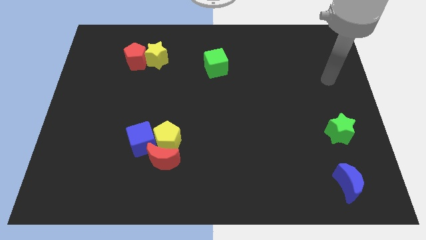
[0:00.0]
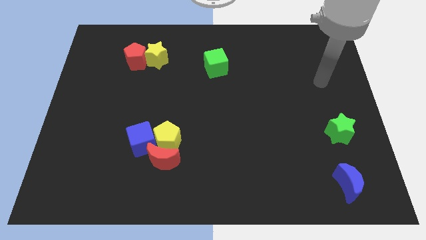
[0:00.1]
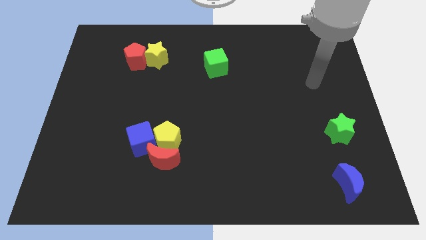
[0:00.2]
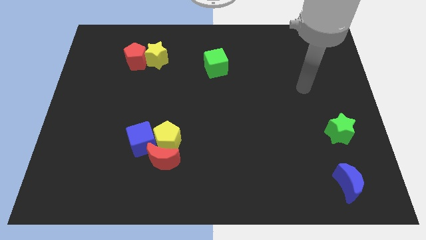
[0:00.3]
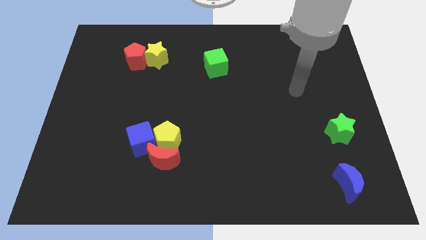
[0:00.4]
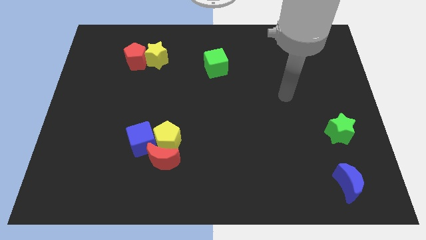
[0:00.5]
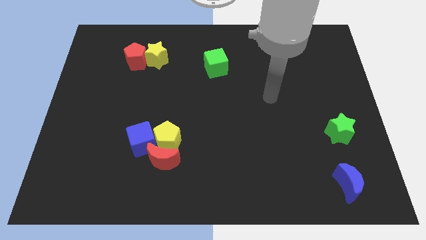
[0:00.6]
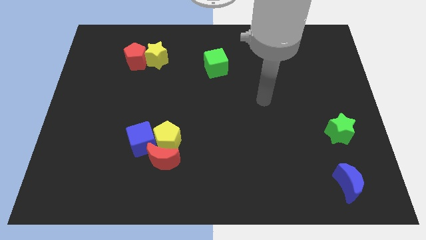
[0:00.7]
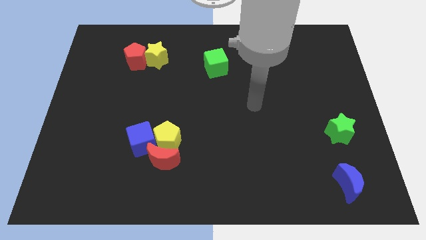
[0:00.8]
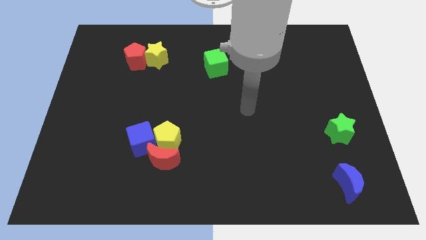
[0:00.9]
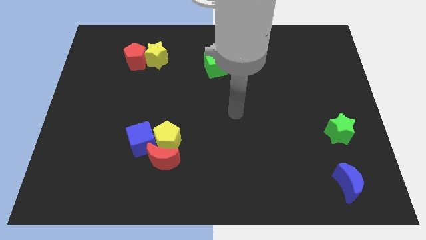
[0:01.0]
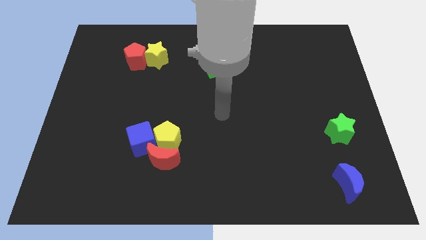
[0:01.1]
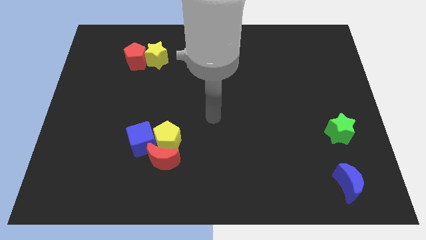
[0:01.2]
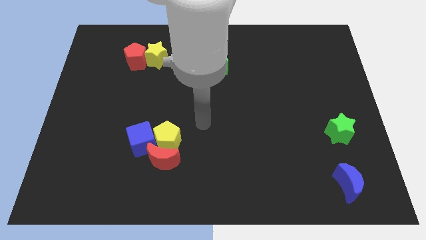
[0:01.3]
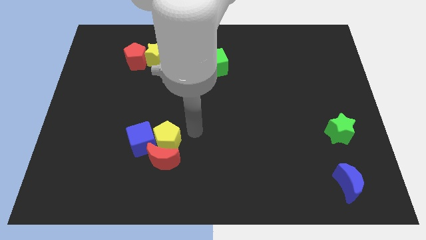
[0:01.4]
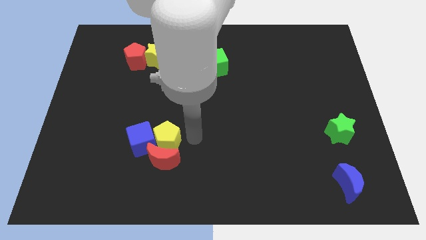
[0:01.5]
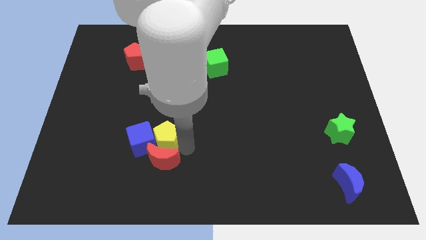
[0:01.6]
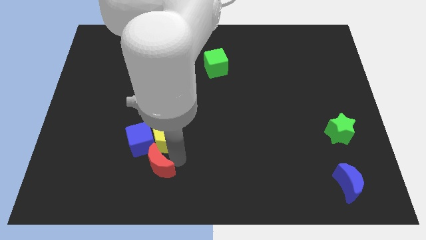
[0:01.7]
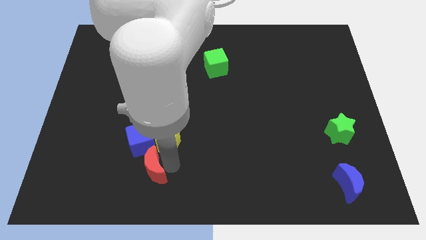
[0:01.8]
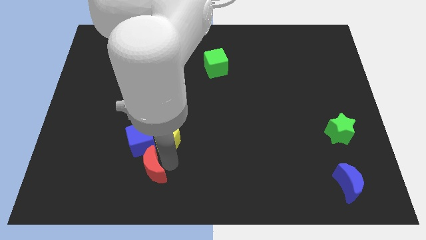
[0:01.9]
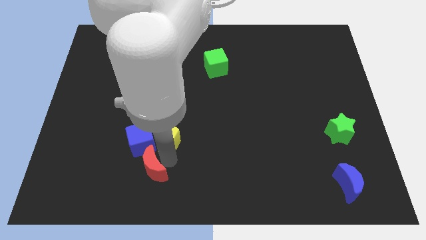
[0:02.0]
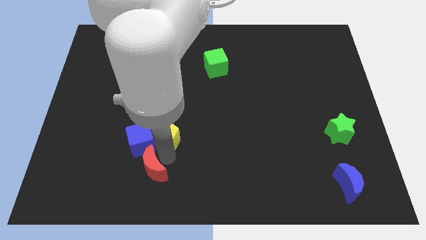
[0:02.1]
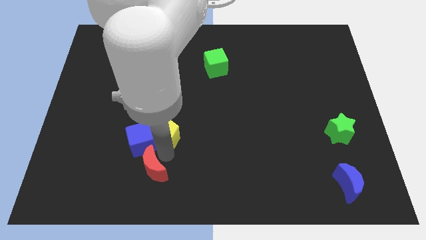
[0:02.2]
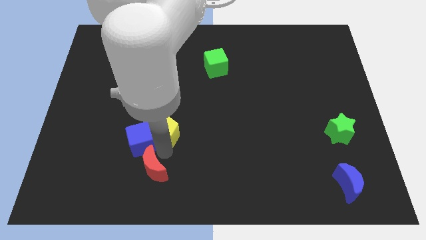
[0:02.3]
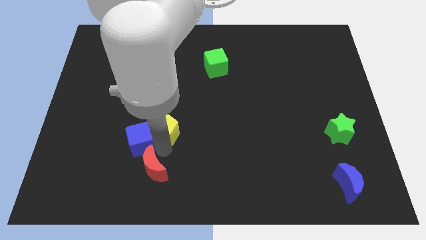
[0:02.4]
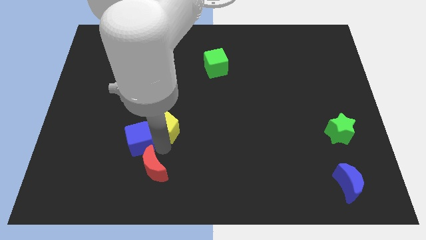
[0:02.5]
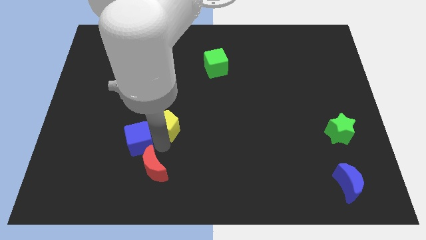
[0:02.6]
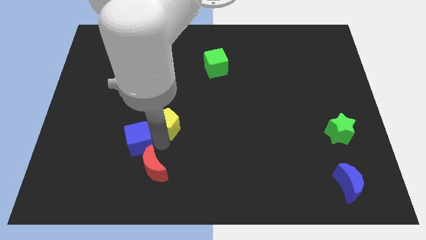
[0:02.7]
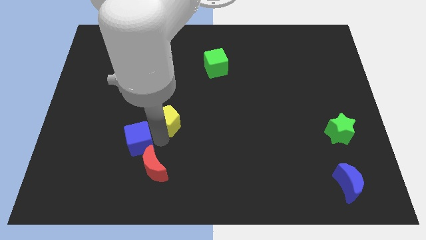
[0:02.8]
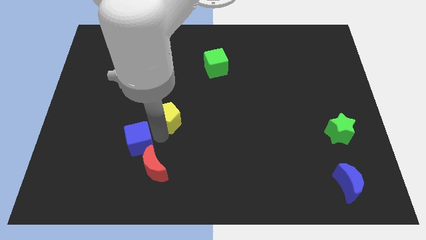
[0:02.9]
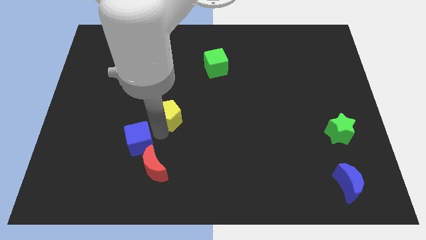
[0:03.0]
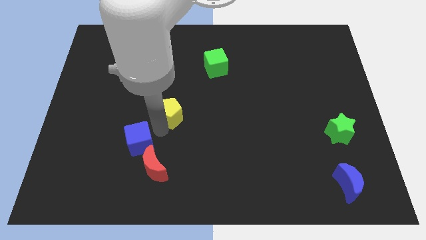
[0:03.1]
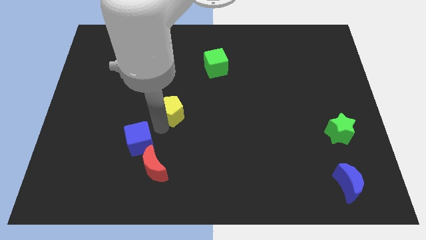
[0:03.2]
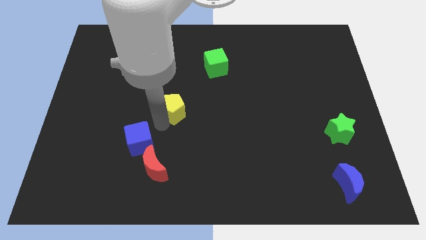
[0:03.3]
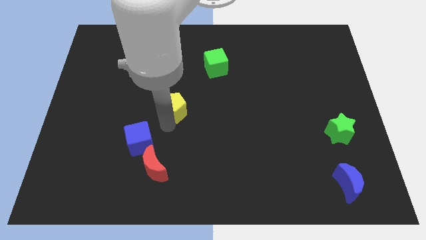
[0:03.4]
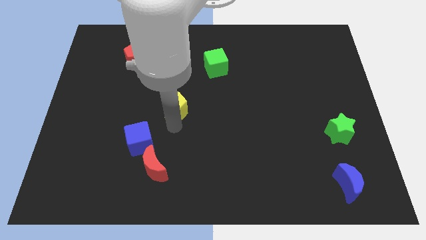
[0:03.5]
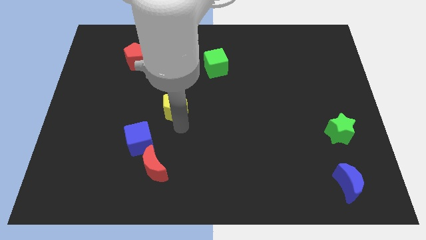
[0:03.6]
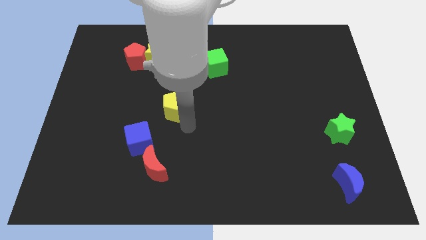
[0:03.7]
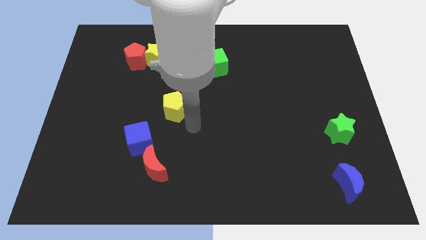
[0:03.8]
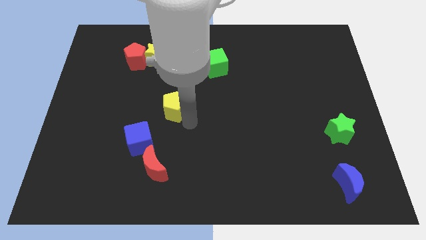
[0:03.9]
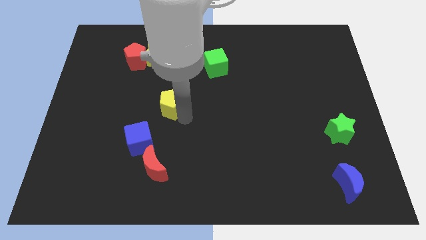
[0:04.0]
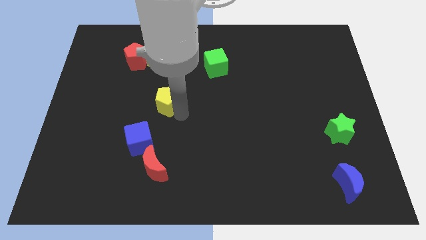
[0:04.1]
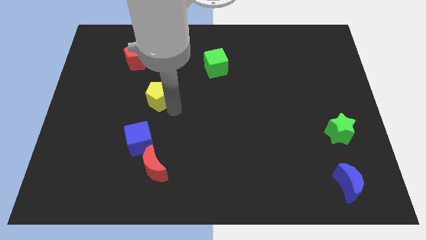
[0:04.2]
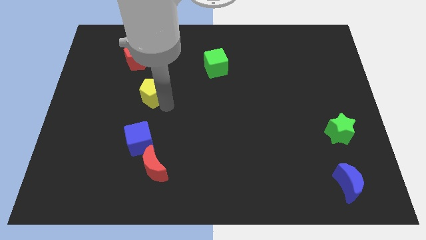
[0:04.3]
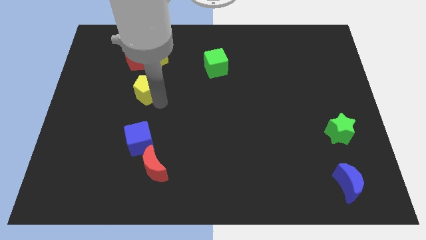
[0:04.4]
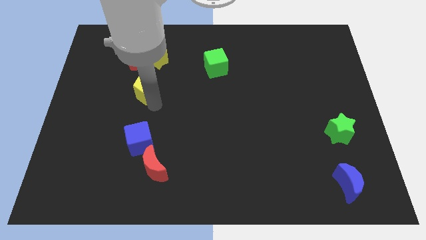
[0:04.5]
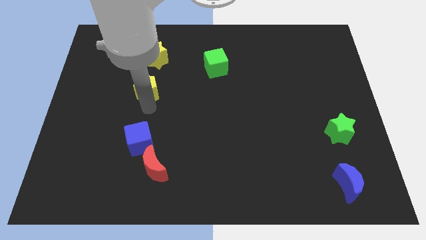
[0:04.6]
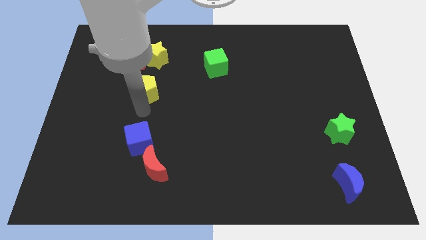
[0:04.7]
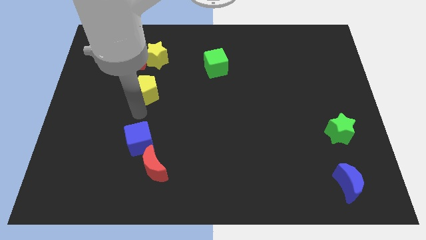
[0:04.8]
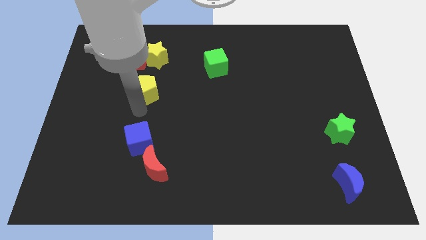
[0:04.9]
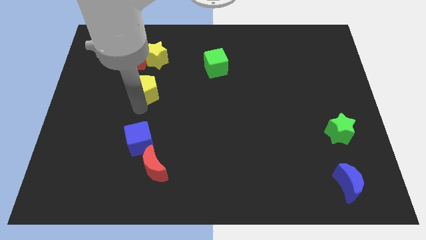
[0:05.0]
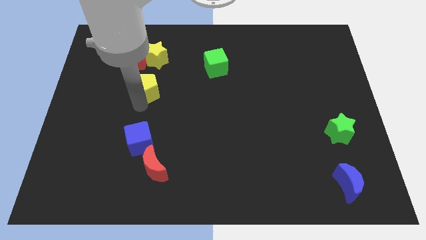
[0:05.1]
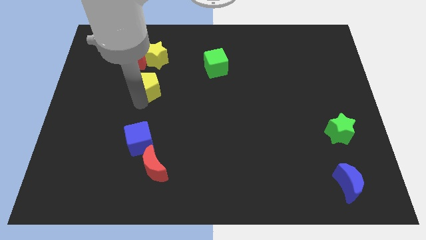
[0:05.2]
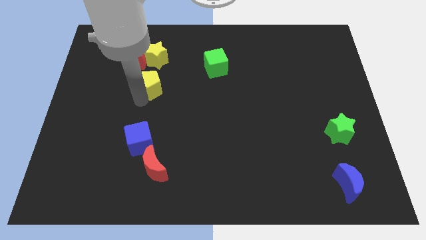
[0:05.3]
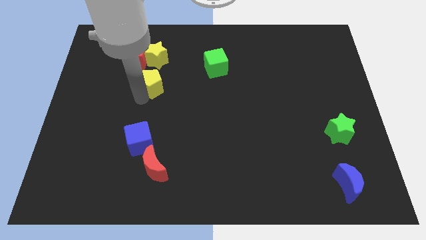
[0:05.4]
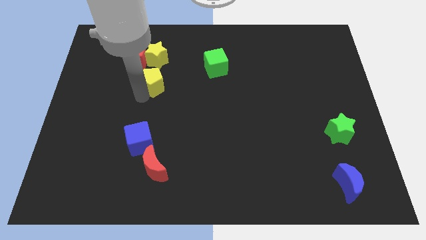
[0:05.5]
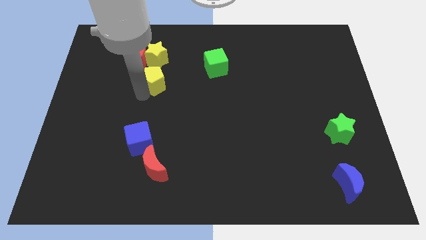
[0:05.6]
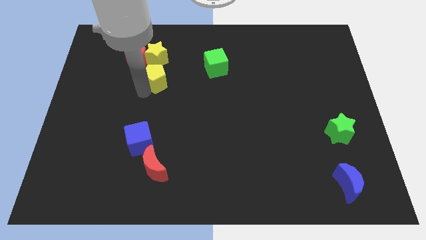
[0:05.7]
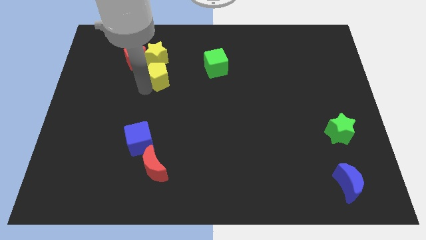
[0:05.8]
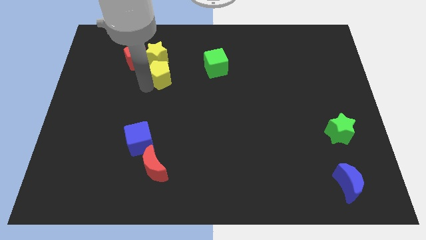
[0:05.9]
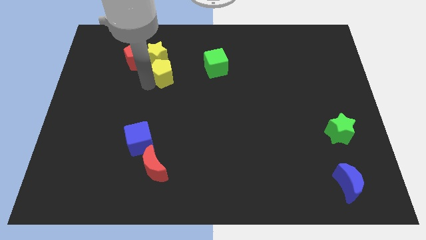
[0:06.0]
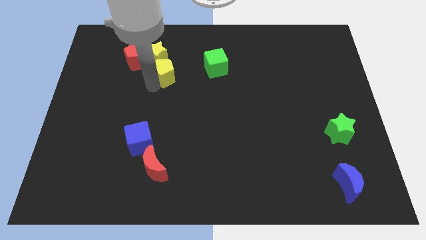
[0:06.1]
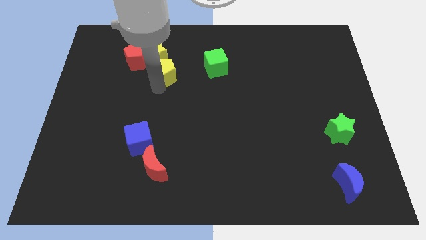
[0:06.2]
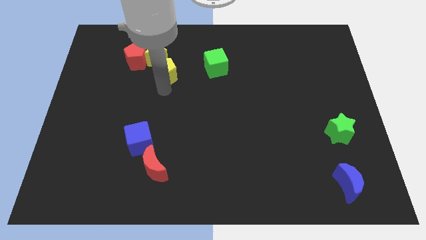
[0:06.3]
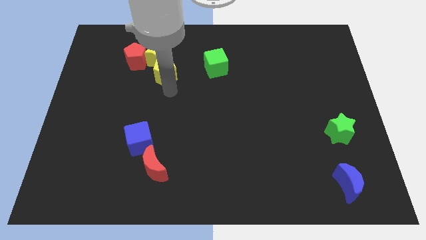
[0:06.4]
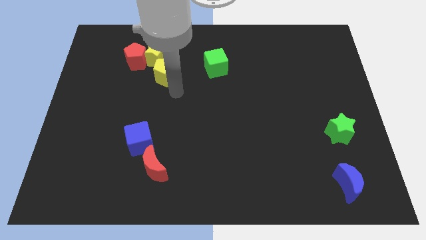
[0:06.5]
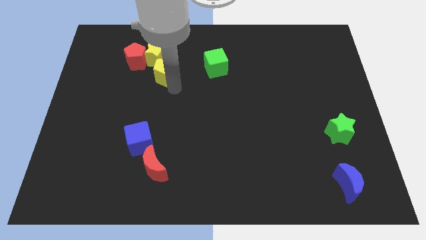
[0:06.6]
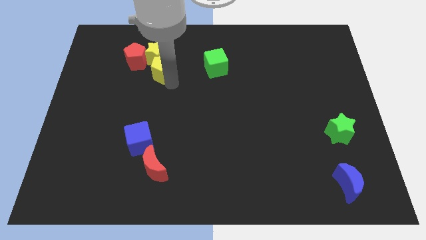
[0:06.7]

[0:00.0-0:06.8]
move the yellow pentagon to the yellow star

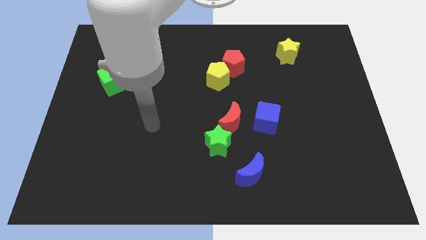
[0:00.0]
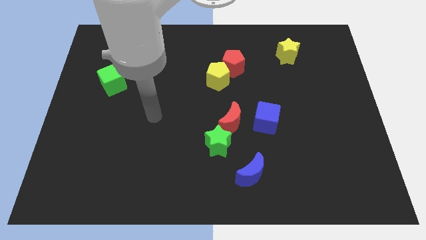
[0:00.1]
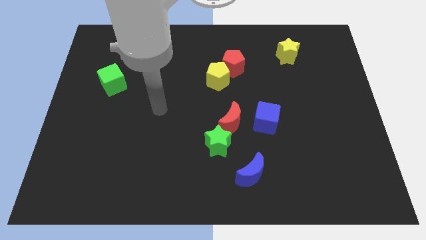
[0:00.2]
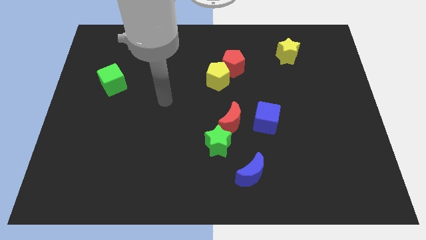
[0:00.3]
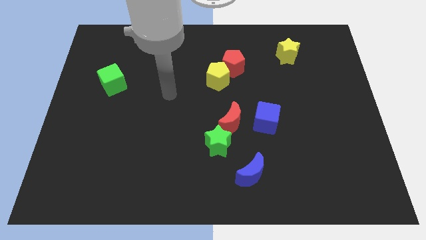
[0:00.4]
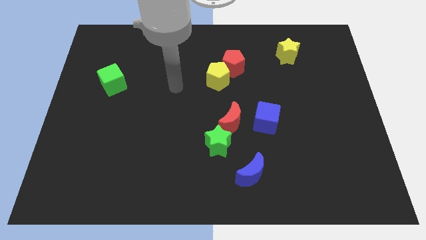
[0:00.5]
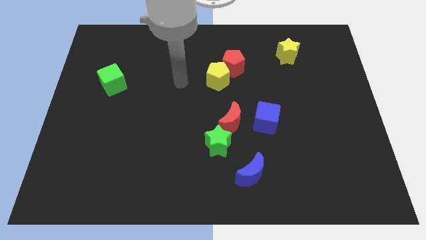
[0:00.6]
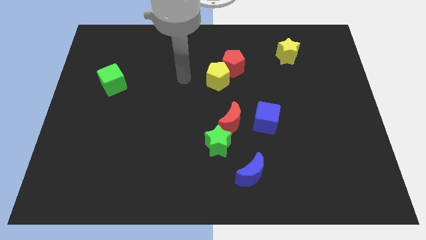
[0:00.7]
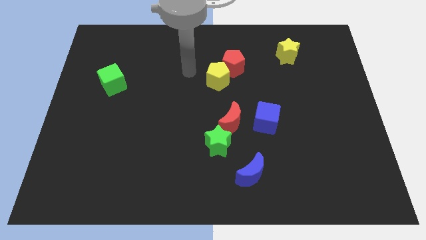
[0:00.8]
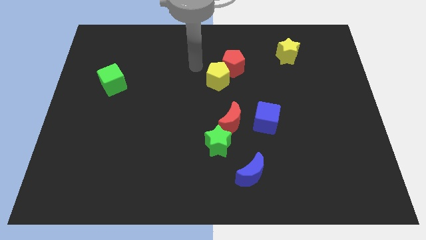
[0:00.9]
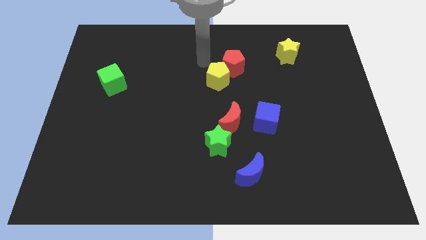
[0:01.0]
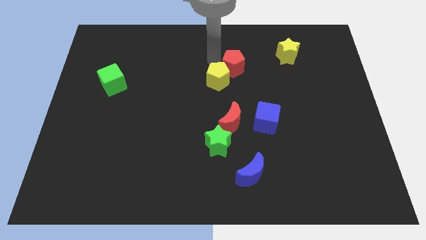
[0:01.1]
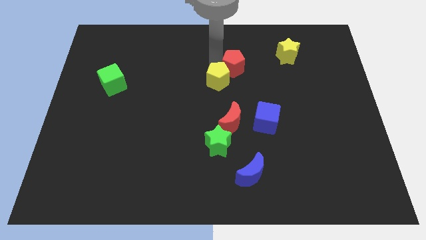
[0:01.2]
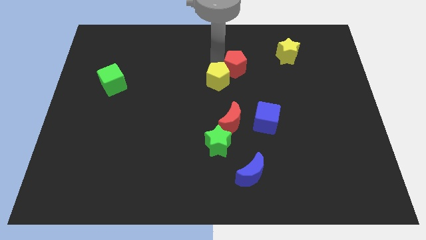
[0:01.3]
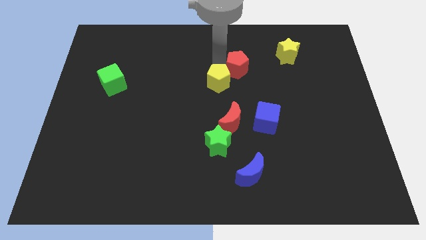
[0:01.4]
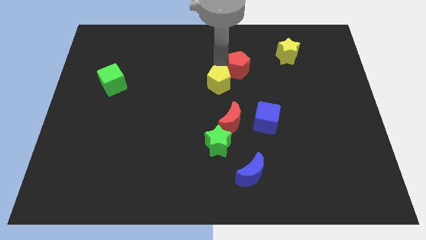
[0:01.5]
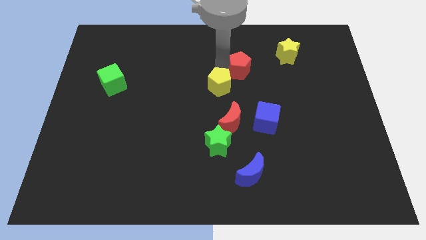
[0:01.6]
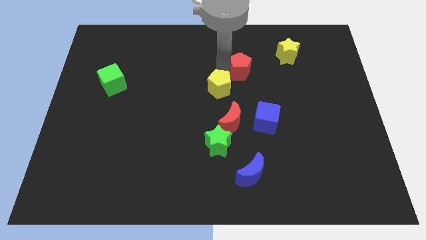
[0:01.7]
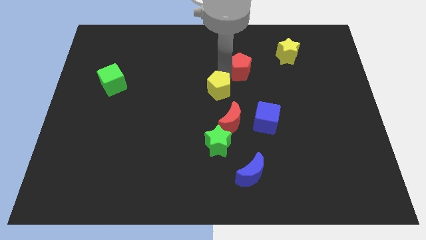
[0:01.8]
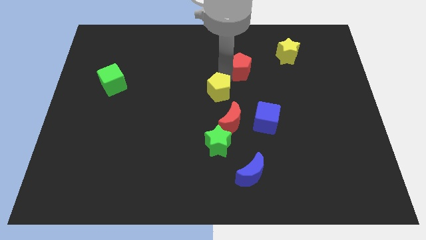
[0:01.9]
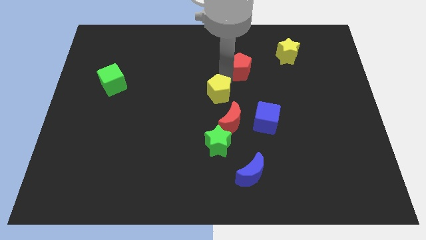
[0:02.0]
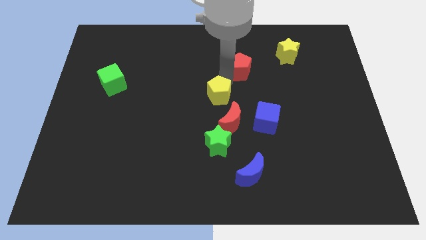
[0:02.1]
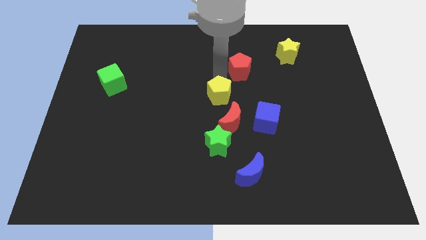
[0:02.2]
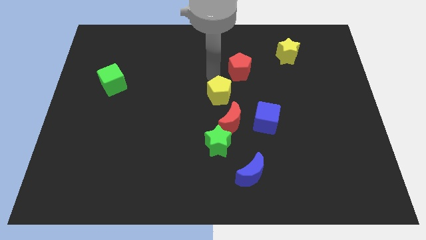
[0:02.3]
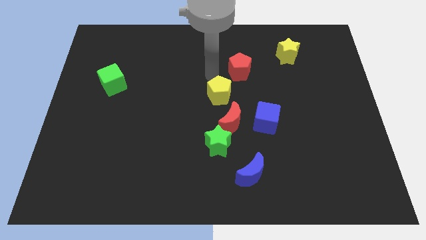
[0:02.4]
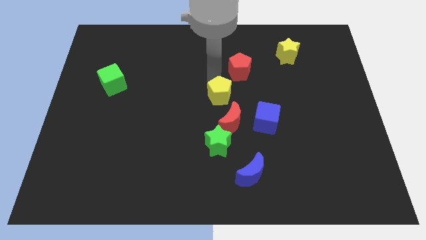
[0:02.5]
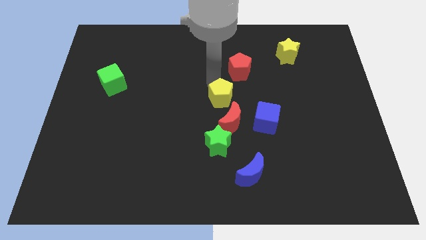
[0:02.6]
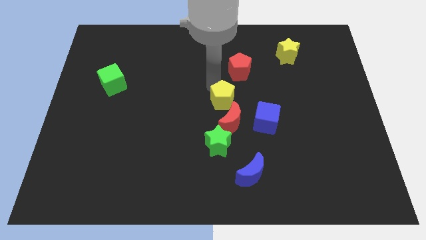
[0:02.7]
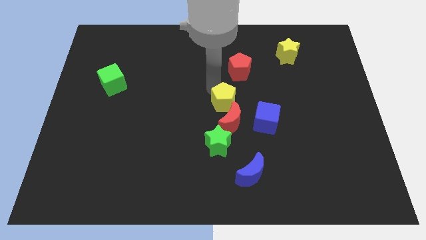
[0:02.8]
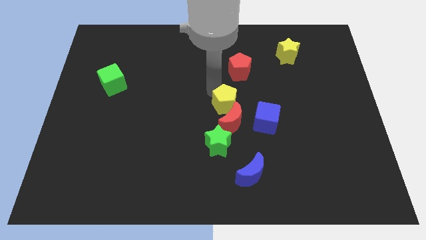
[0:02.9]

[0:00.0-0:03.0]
move the yellow pentagon next to the red moon
